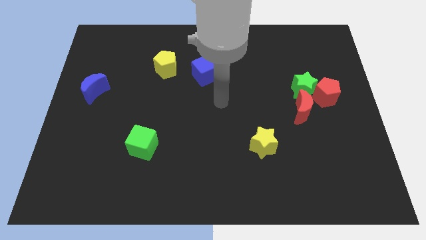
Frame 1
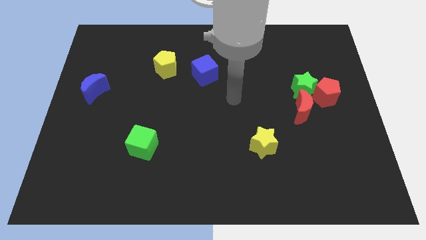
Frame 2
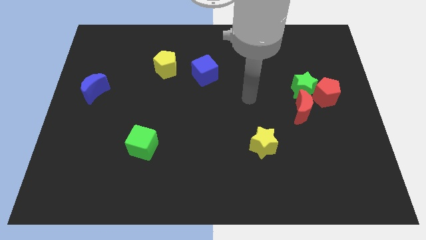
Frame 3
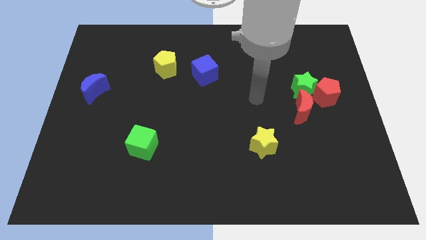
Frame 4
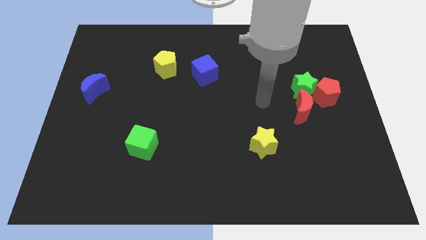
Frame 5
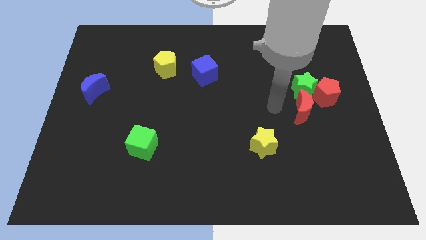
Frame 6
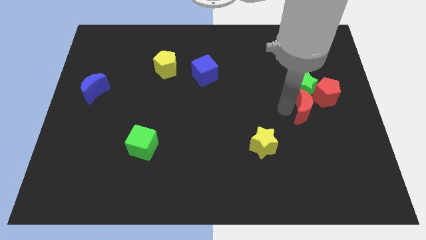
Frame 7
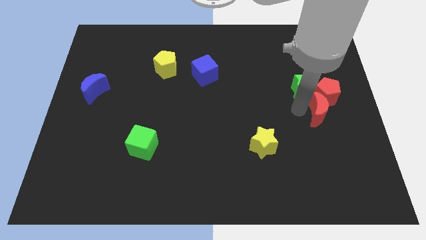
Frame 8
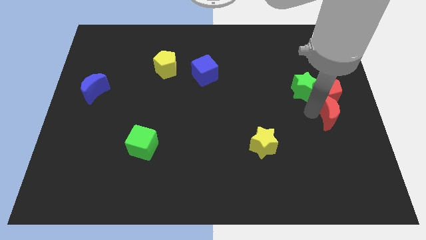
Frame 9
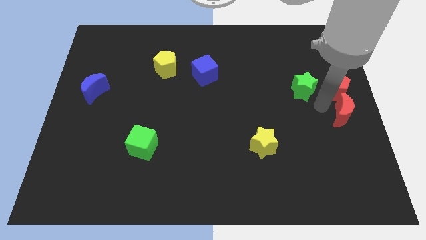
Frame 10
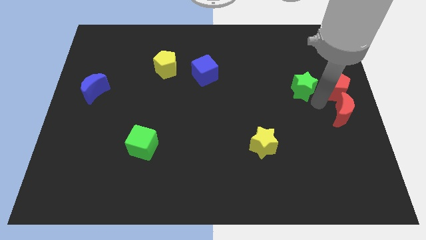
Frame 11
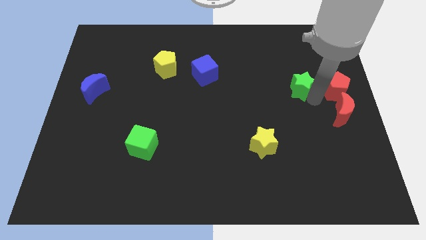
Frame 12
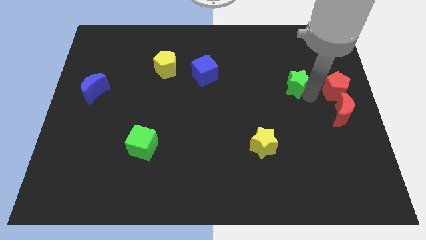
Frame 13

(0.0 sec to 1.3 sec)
move the green star away from the red pentagon and red moon

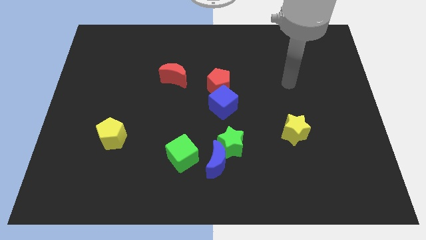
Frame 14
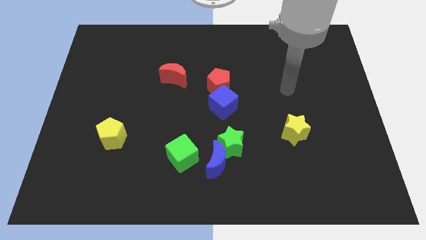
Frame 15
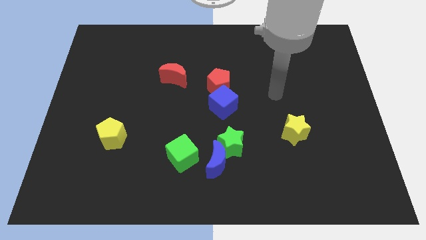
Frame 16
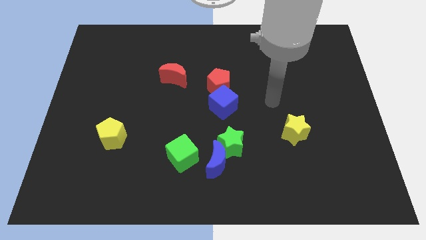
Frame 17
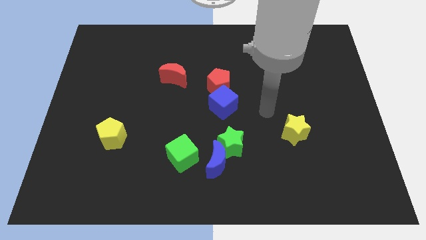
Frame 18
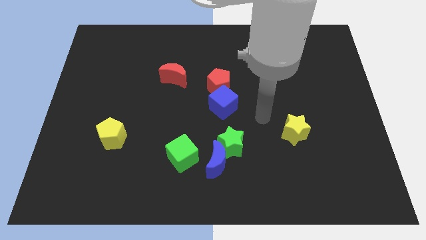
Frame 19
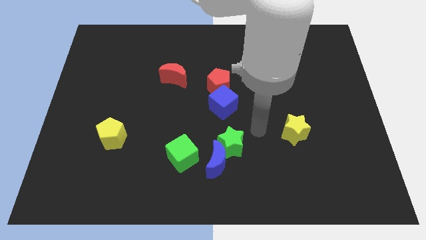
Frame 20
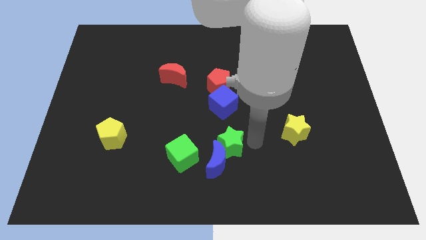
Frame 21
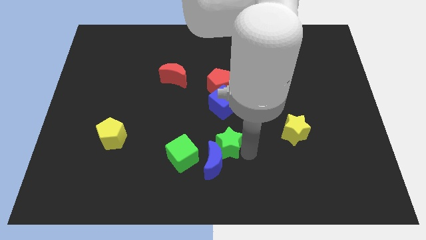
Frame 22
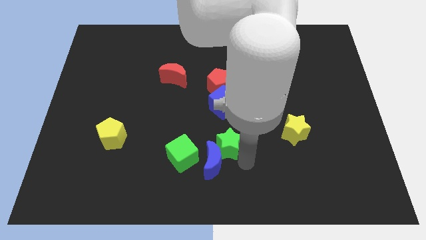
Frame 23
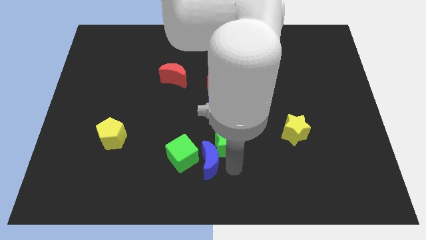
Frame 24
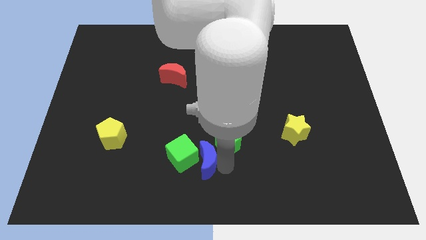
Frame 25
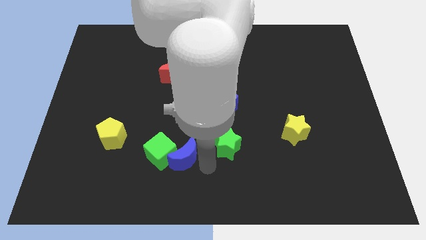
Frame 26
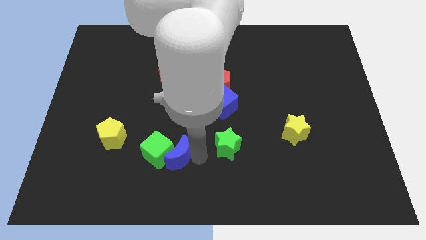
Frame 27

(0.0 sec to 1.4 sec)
move the green star away from the blue moon

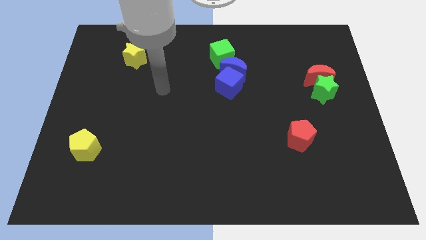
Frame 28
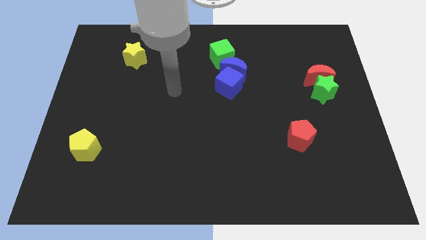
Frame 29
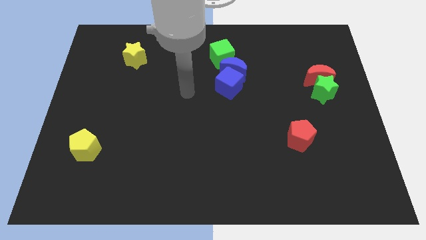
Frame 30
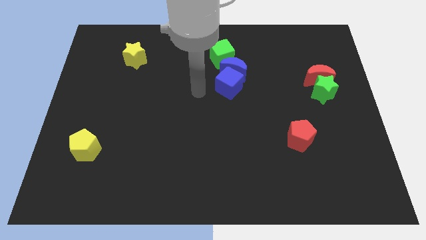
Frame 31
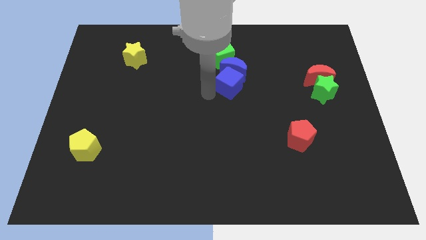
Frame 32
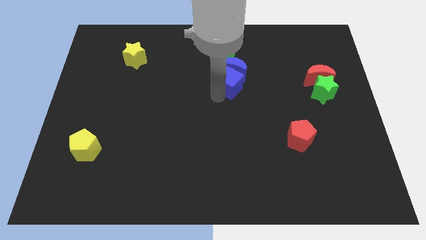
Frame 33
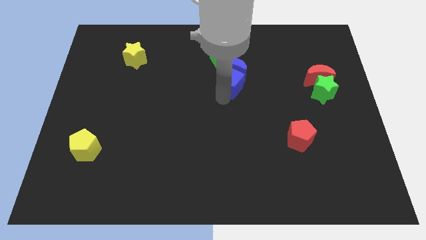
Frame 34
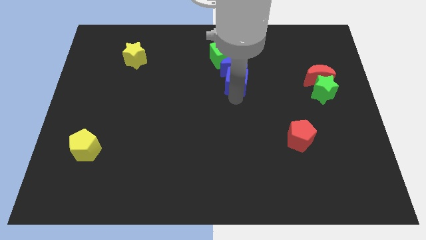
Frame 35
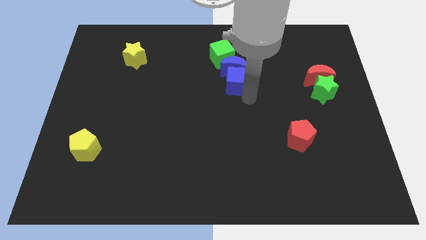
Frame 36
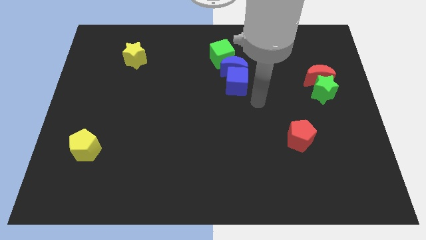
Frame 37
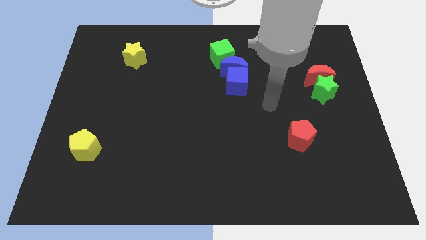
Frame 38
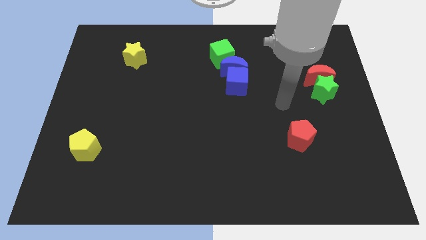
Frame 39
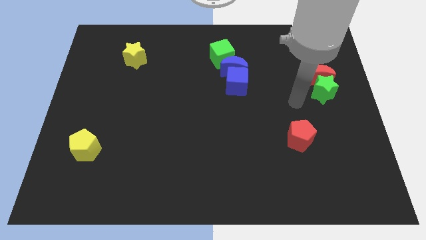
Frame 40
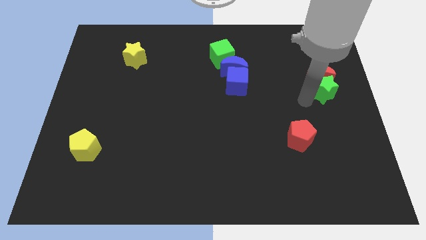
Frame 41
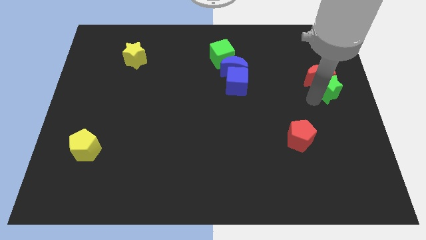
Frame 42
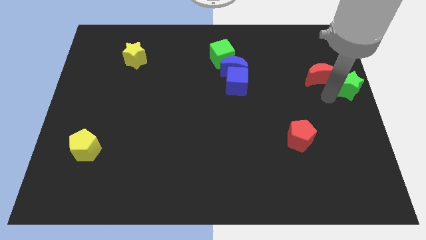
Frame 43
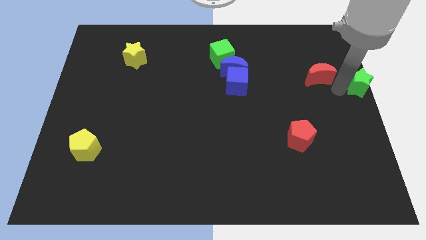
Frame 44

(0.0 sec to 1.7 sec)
pull the red moon apart from the green star

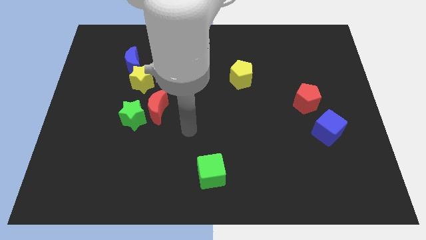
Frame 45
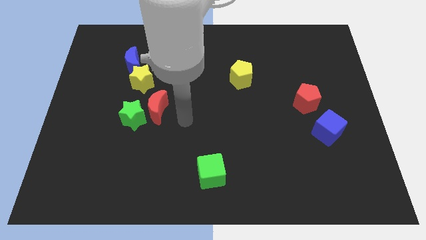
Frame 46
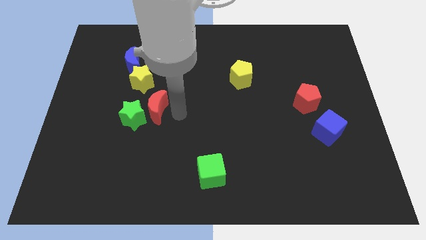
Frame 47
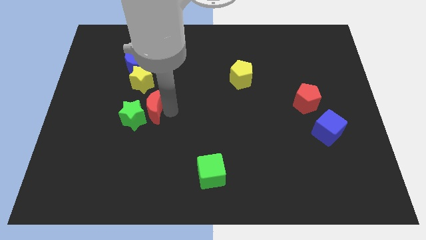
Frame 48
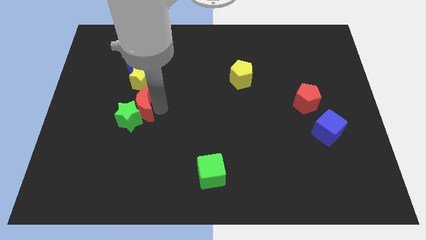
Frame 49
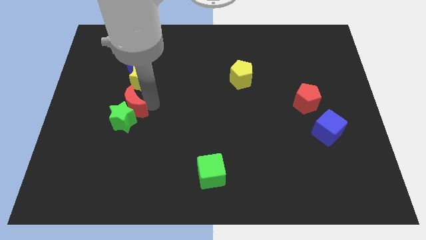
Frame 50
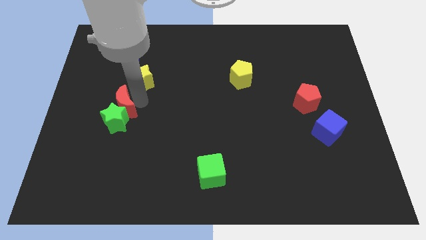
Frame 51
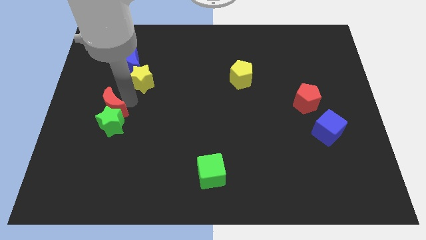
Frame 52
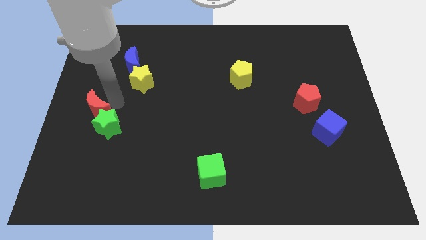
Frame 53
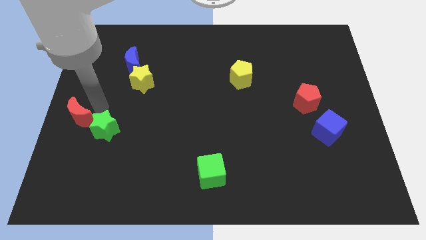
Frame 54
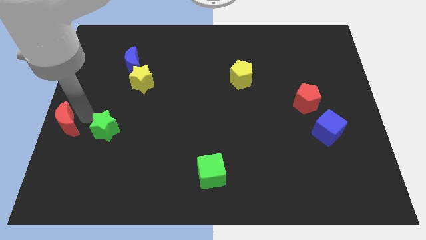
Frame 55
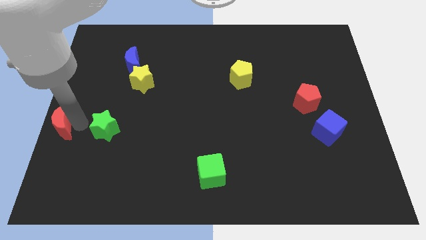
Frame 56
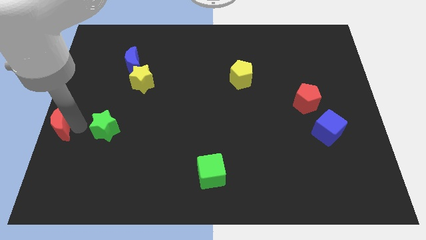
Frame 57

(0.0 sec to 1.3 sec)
pull the green star apart from the red moon

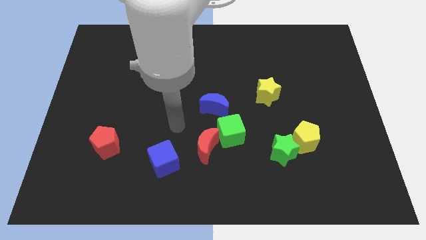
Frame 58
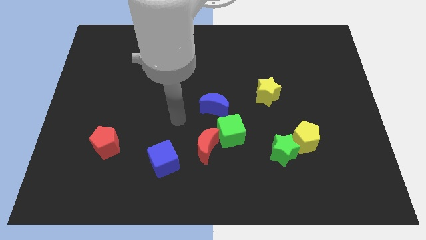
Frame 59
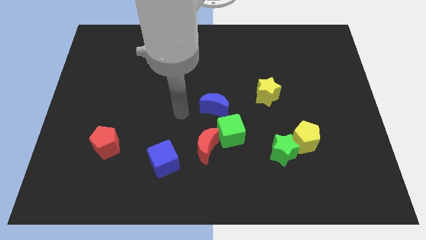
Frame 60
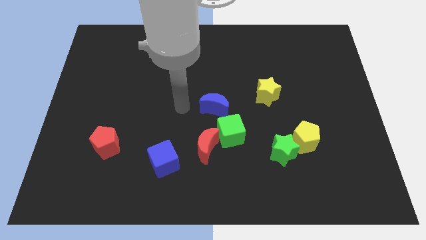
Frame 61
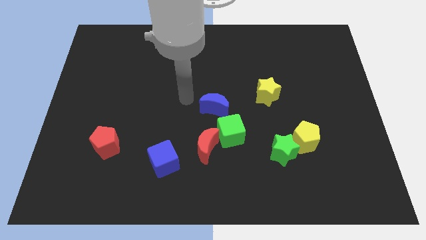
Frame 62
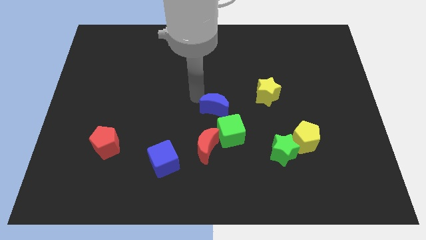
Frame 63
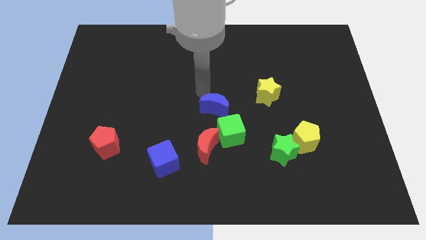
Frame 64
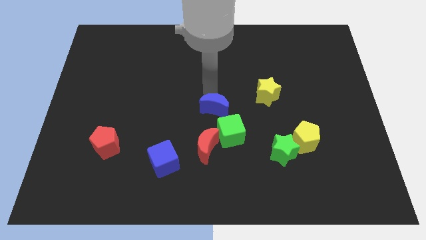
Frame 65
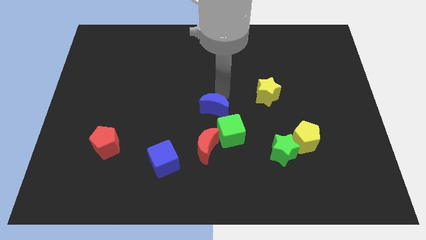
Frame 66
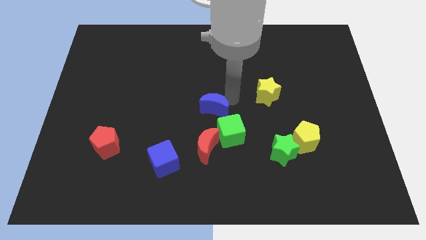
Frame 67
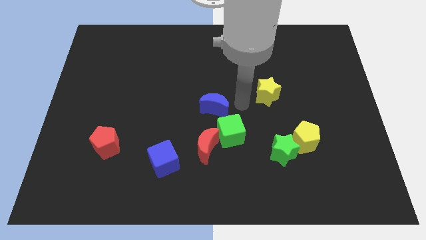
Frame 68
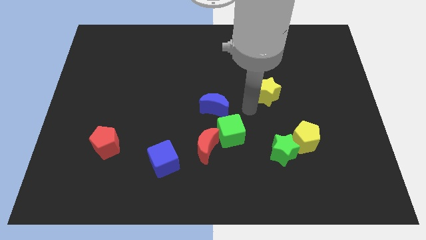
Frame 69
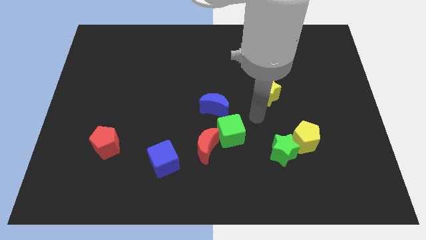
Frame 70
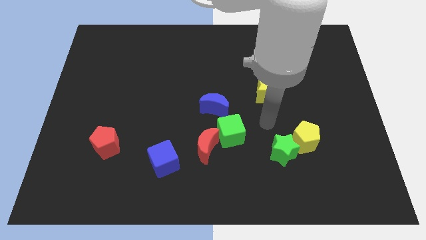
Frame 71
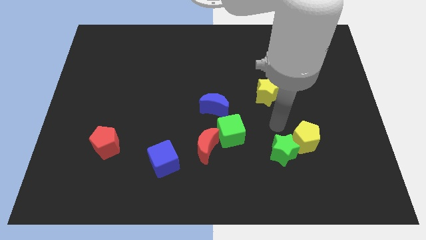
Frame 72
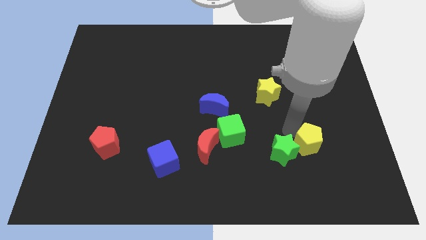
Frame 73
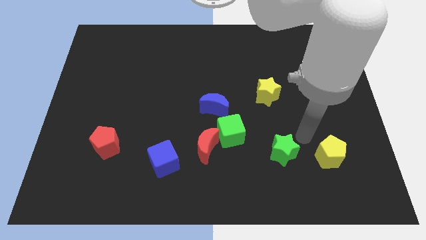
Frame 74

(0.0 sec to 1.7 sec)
move the green star away from the yellow pentagon

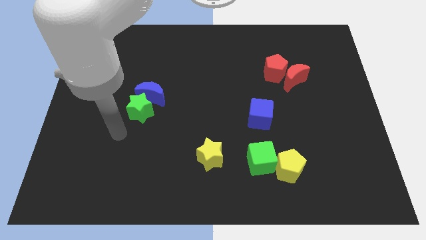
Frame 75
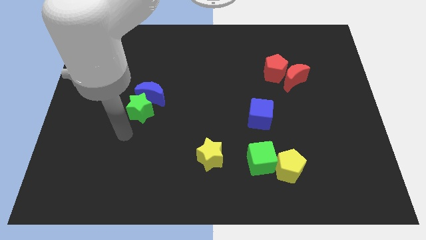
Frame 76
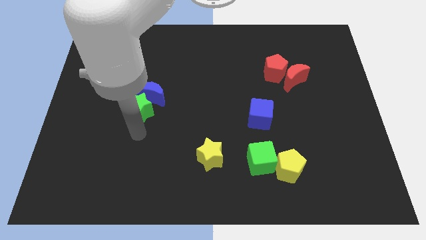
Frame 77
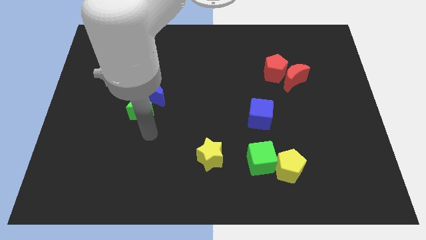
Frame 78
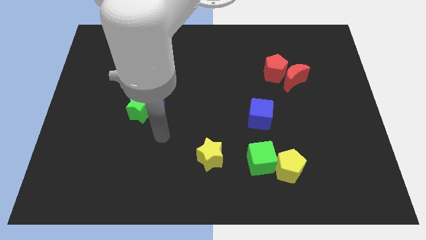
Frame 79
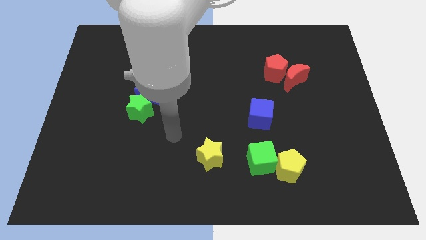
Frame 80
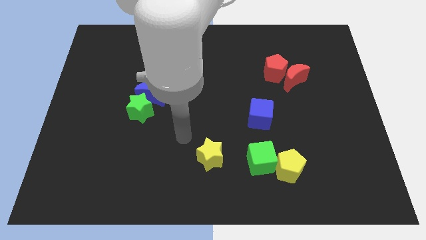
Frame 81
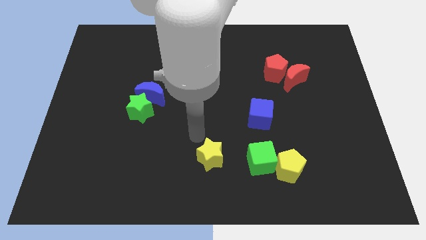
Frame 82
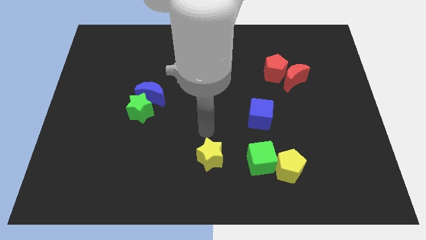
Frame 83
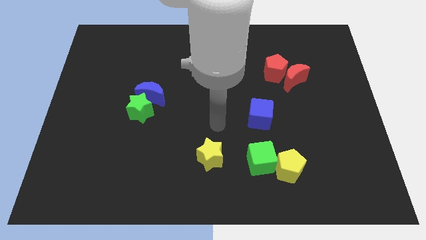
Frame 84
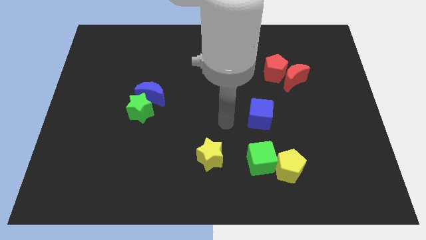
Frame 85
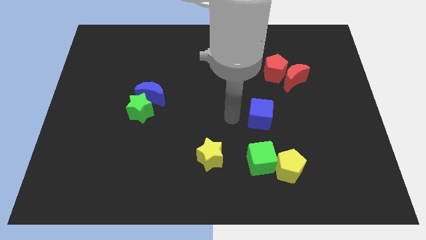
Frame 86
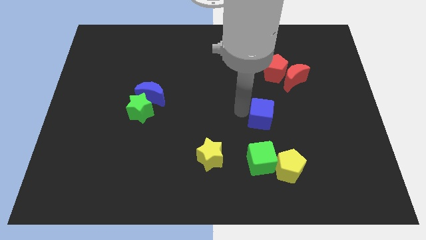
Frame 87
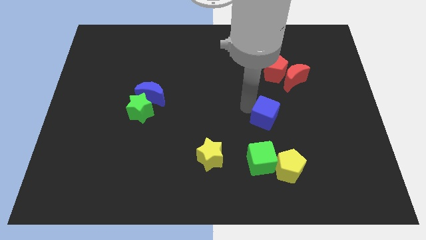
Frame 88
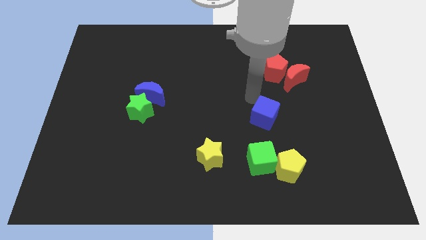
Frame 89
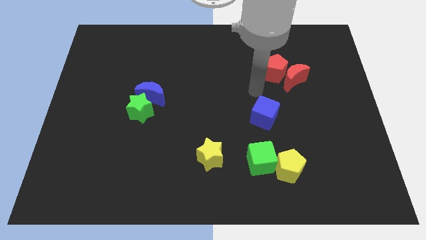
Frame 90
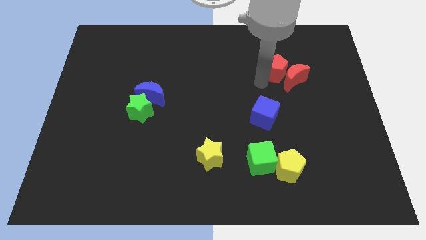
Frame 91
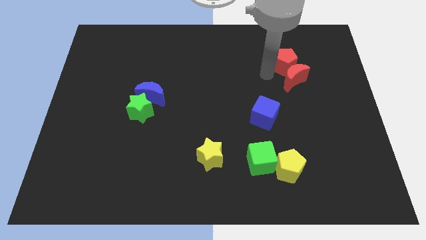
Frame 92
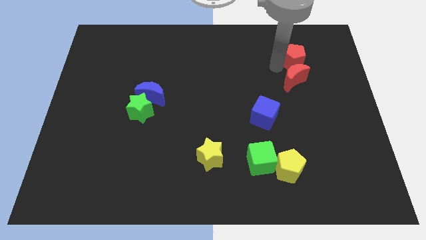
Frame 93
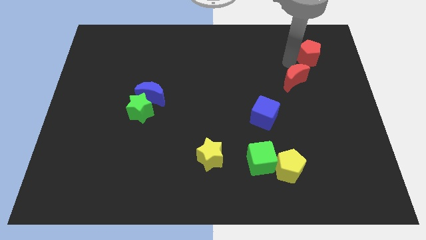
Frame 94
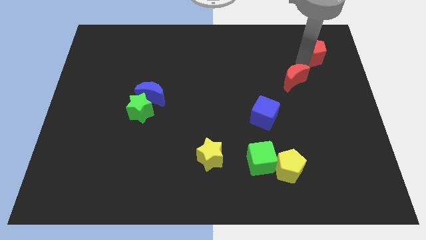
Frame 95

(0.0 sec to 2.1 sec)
move the red moon away from the red pentagon
